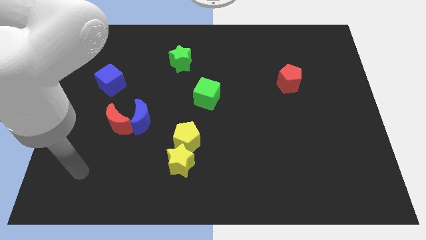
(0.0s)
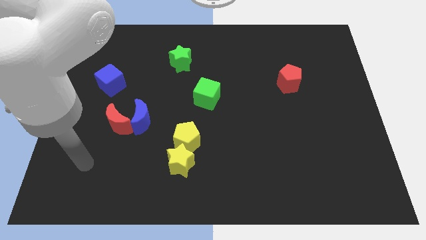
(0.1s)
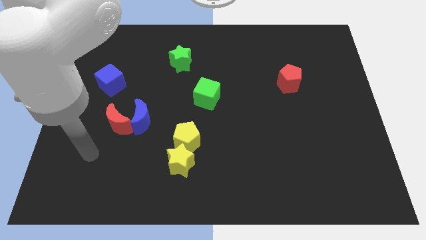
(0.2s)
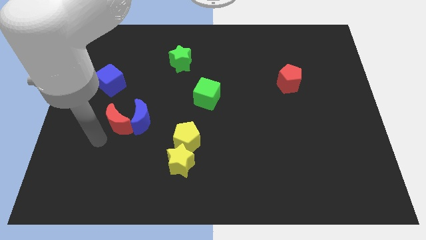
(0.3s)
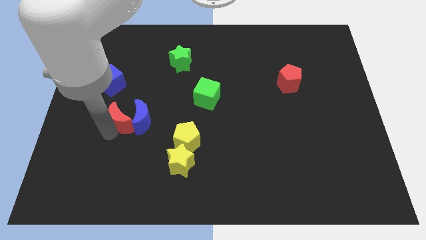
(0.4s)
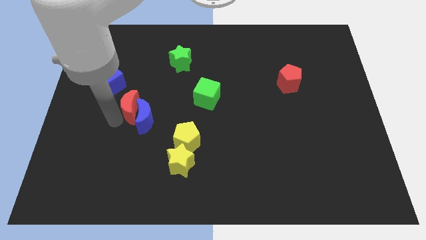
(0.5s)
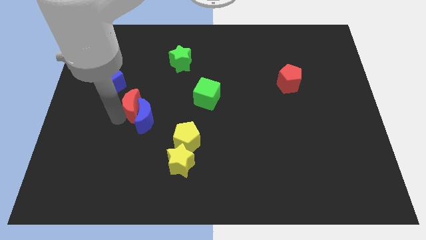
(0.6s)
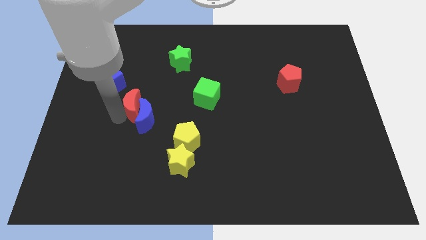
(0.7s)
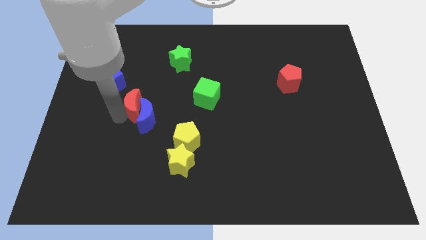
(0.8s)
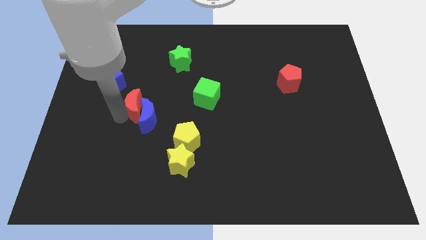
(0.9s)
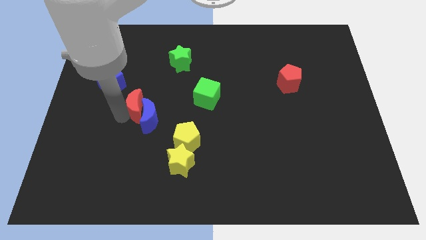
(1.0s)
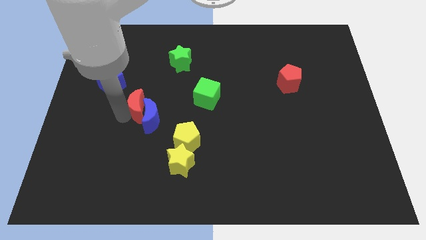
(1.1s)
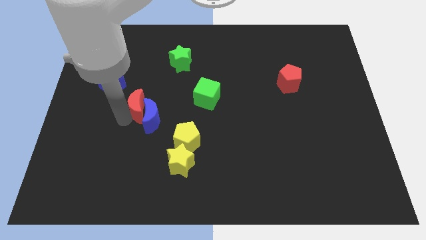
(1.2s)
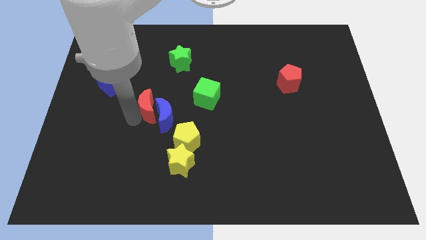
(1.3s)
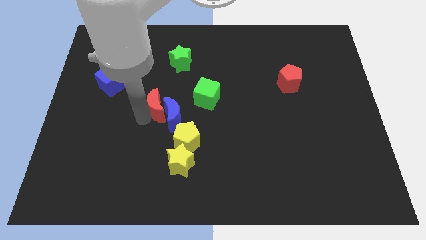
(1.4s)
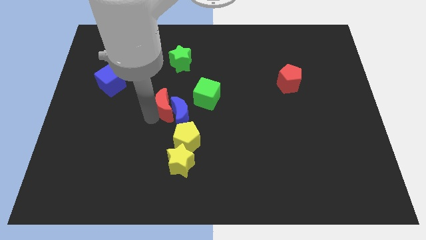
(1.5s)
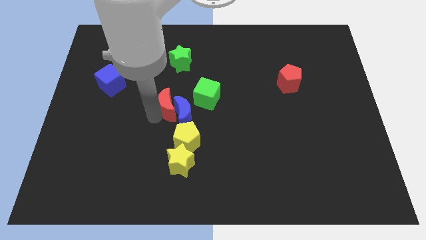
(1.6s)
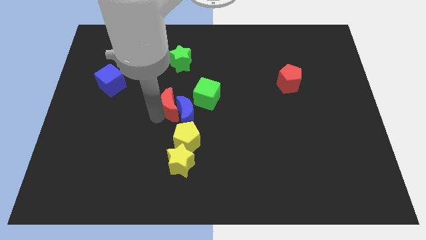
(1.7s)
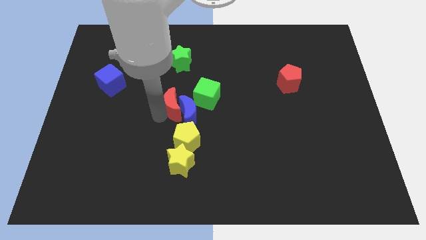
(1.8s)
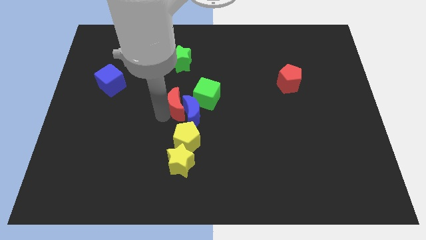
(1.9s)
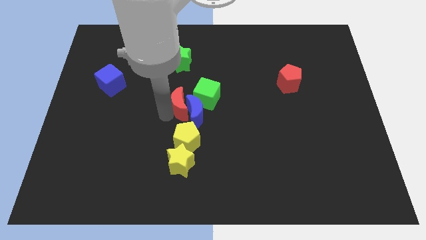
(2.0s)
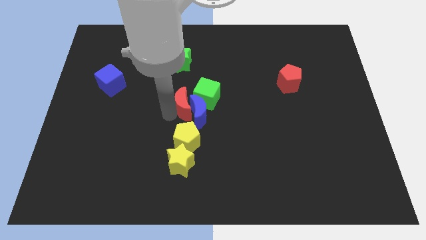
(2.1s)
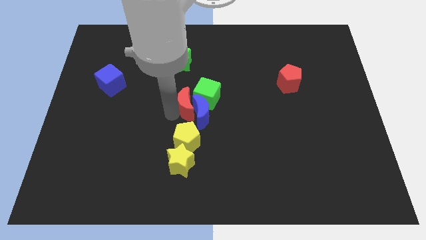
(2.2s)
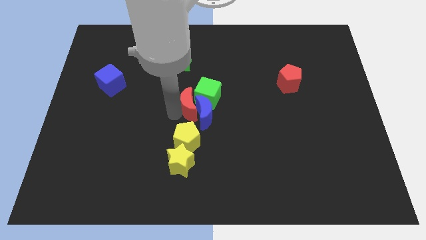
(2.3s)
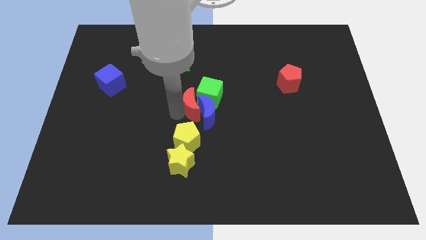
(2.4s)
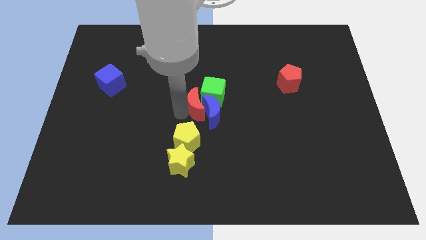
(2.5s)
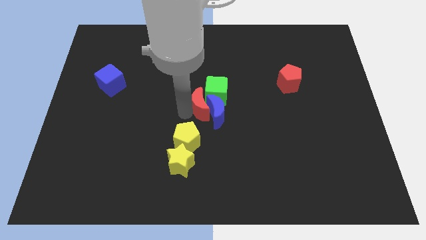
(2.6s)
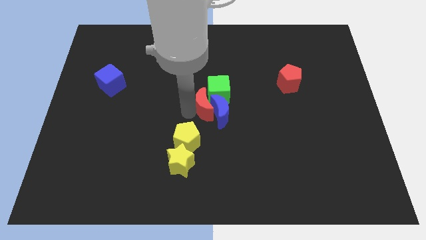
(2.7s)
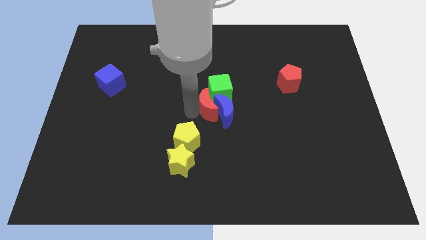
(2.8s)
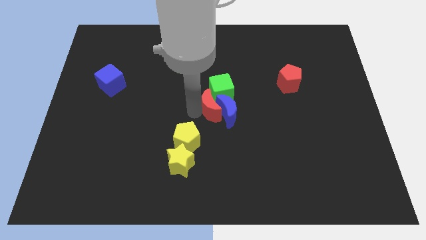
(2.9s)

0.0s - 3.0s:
move the blue moon right

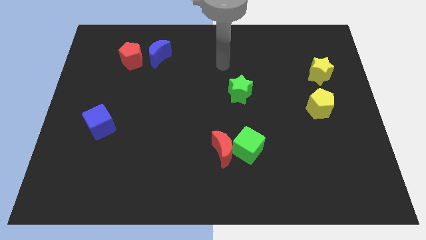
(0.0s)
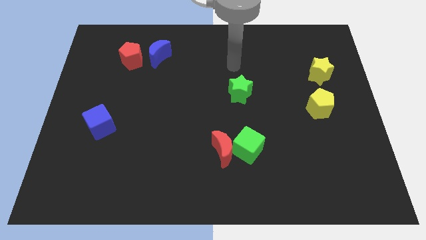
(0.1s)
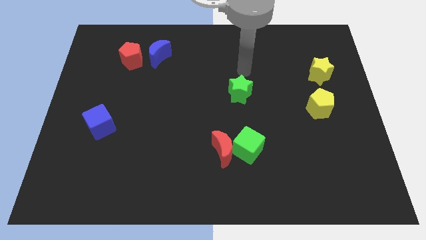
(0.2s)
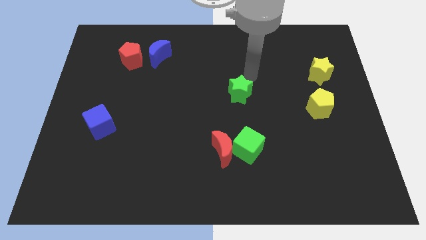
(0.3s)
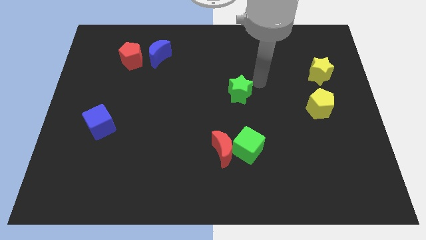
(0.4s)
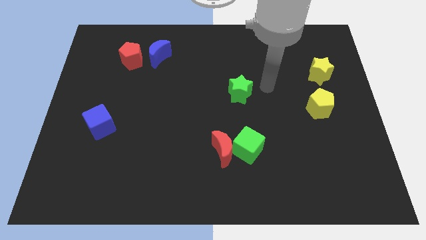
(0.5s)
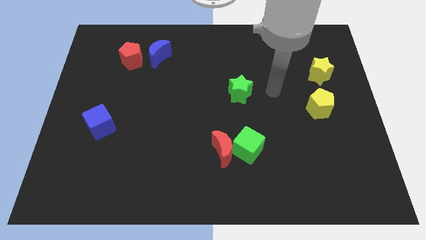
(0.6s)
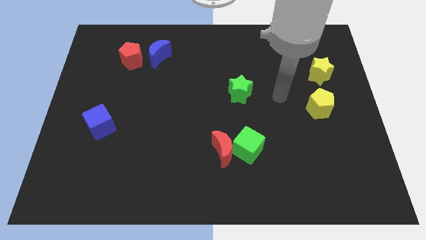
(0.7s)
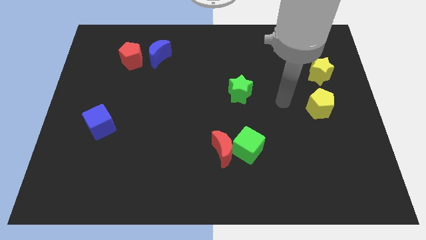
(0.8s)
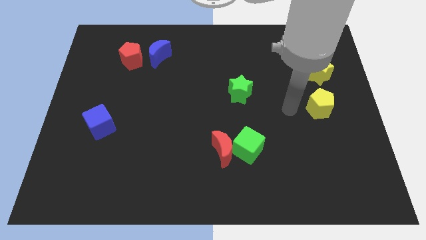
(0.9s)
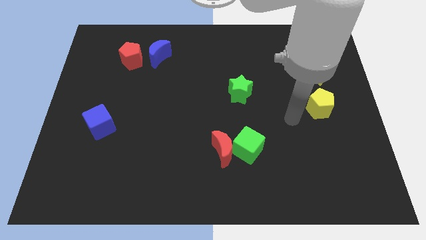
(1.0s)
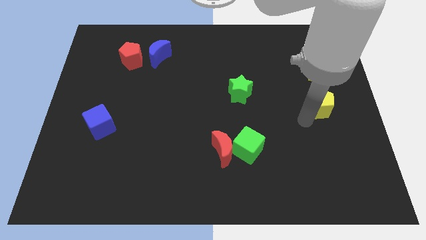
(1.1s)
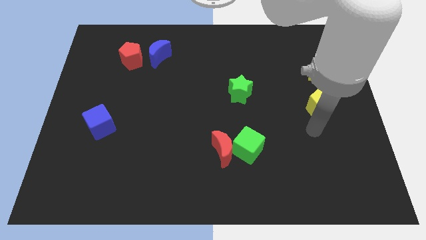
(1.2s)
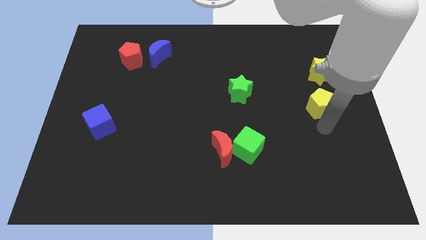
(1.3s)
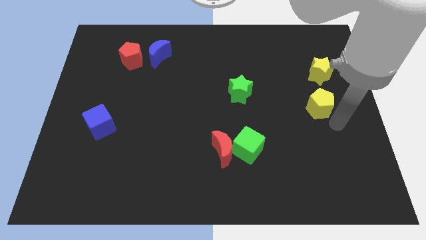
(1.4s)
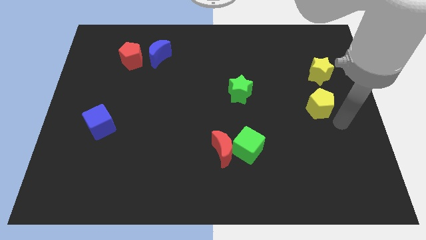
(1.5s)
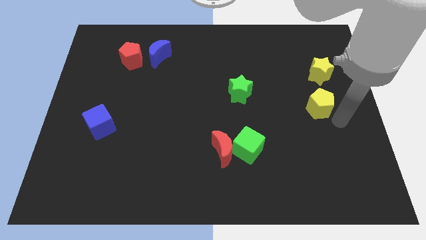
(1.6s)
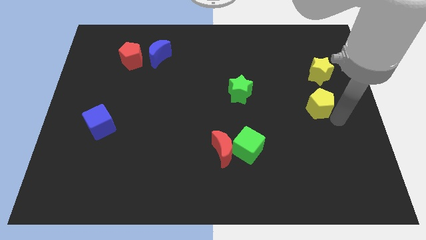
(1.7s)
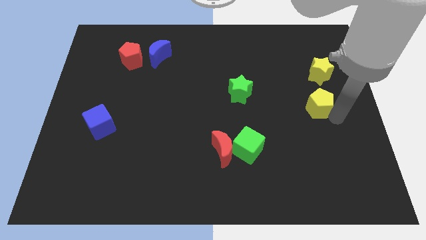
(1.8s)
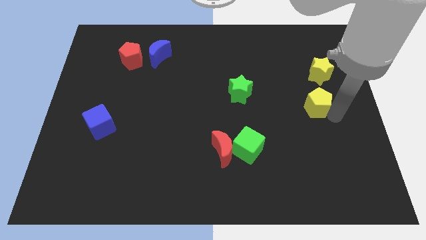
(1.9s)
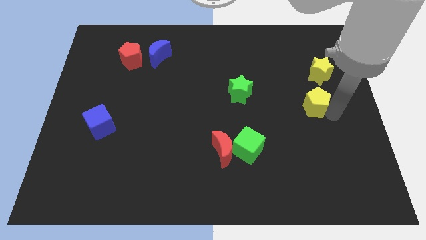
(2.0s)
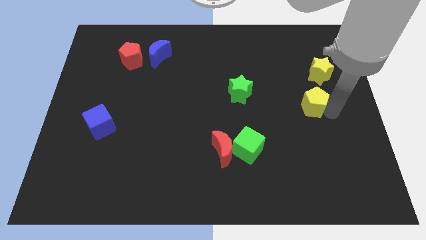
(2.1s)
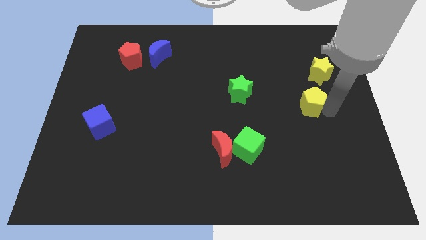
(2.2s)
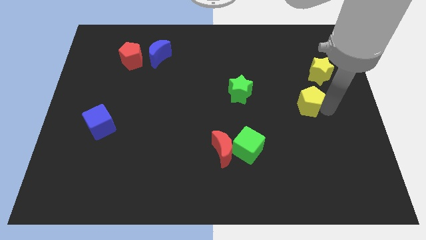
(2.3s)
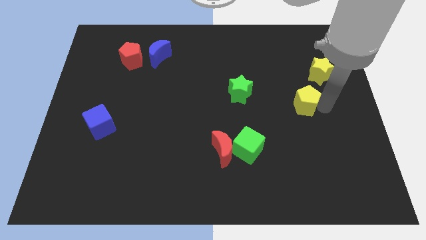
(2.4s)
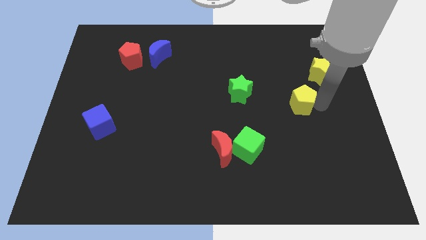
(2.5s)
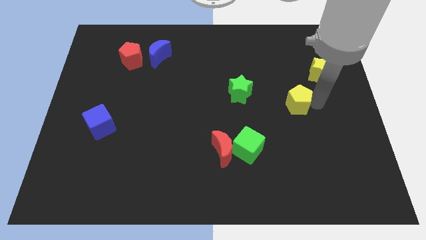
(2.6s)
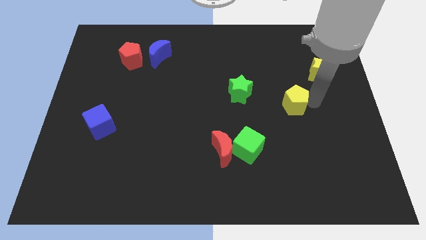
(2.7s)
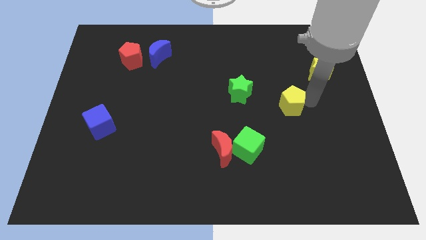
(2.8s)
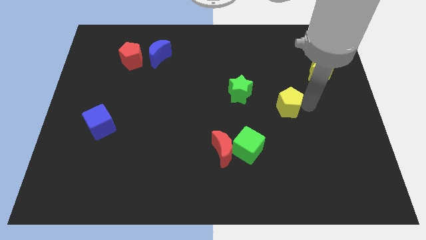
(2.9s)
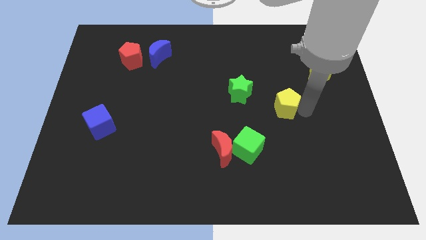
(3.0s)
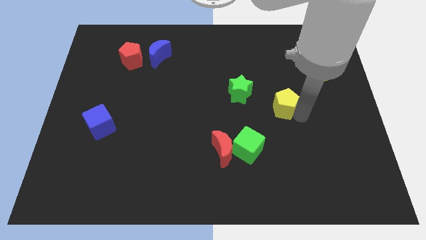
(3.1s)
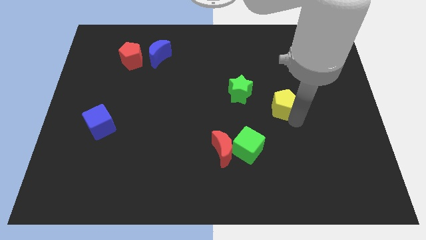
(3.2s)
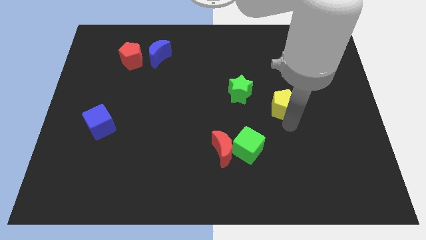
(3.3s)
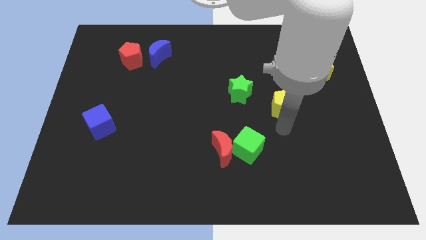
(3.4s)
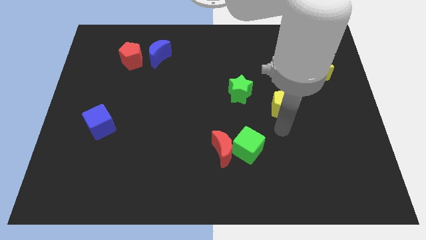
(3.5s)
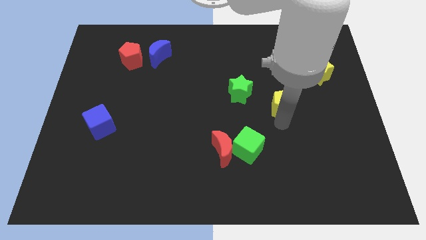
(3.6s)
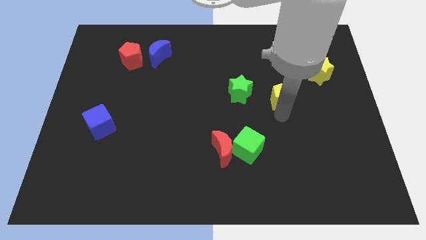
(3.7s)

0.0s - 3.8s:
push the yellow pentagon up and then left a bit

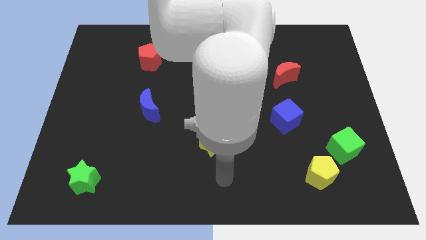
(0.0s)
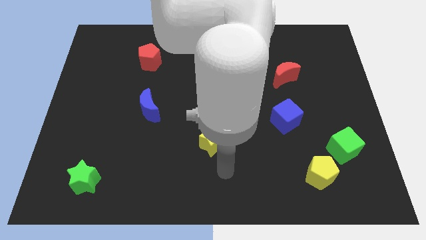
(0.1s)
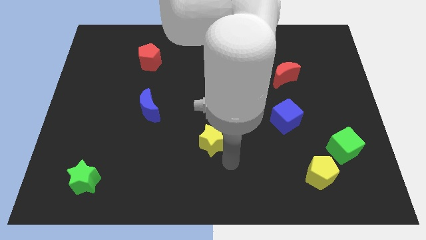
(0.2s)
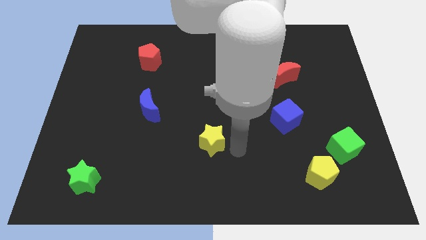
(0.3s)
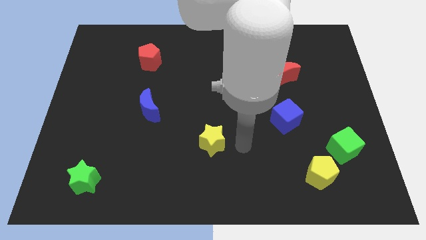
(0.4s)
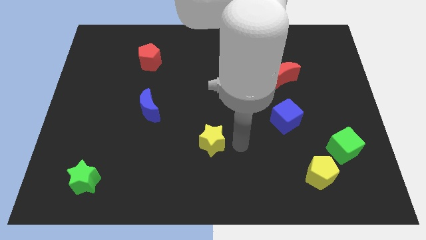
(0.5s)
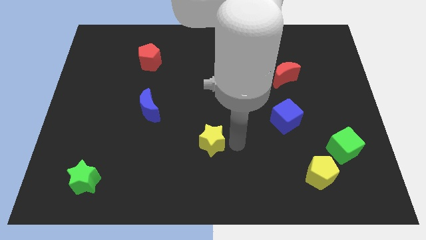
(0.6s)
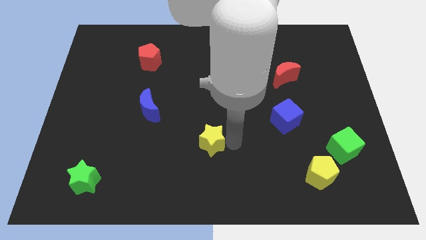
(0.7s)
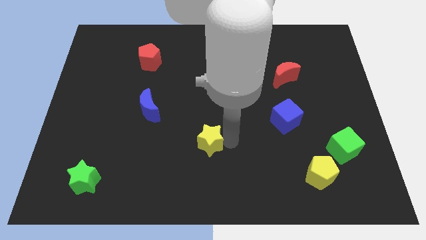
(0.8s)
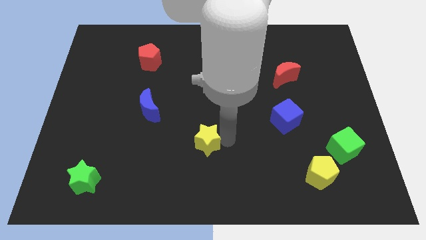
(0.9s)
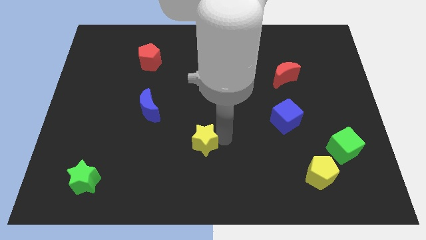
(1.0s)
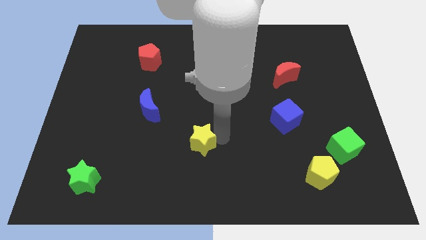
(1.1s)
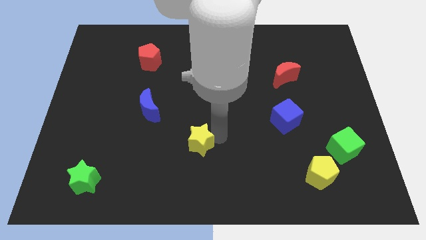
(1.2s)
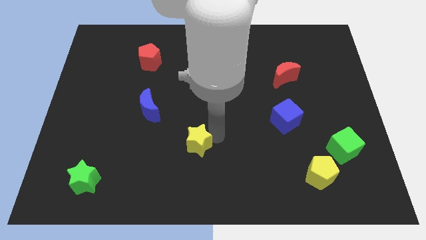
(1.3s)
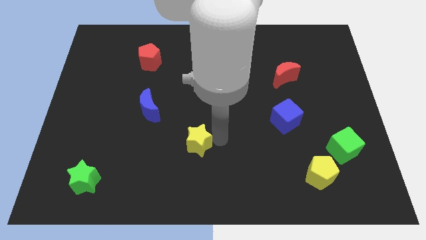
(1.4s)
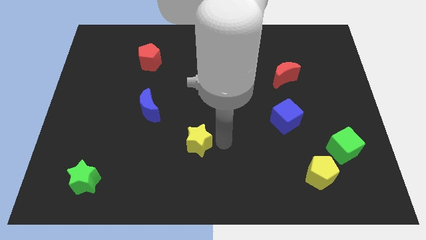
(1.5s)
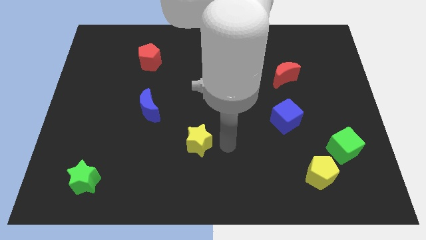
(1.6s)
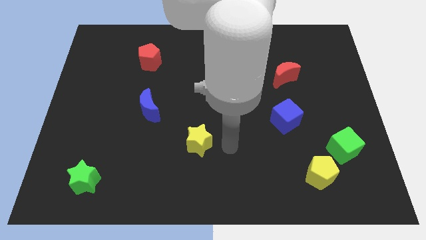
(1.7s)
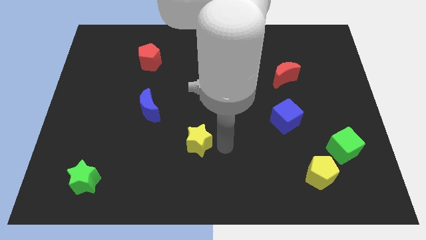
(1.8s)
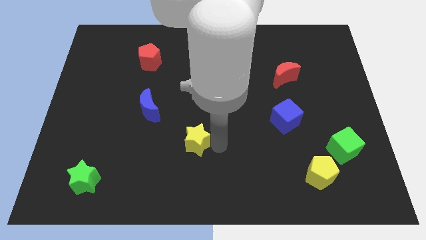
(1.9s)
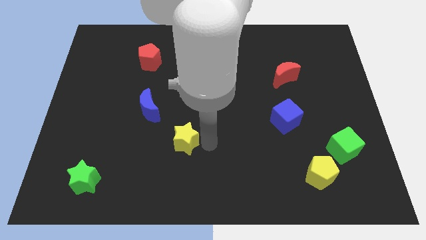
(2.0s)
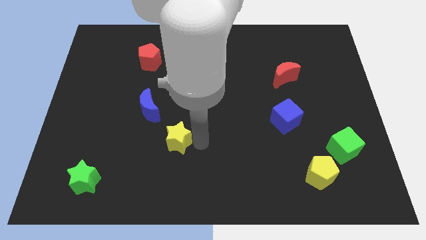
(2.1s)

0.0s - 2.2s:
slightly push the yellow star to the left
